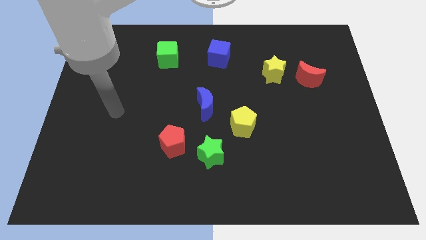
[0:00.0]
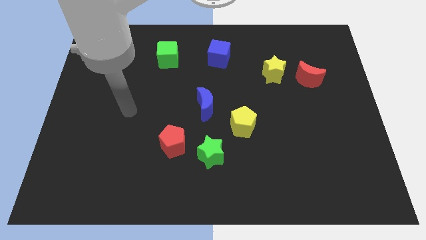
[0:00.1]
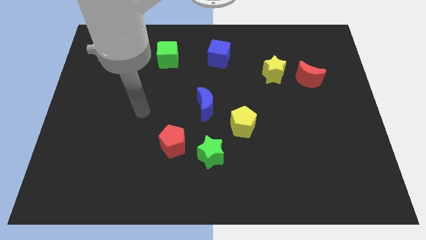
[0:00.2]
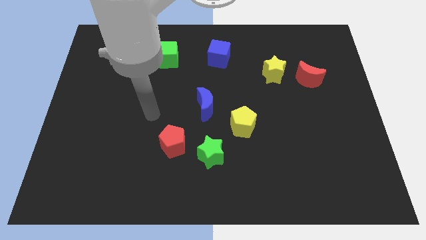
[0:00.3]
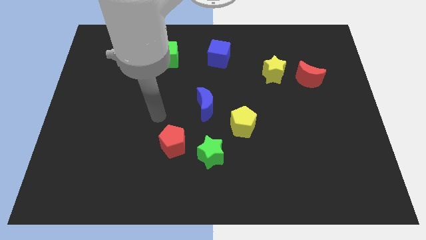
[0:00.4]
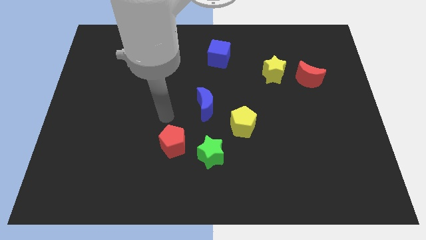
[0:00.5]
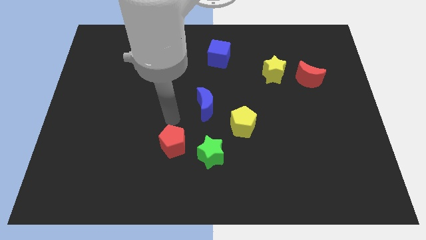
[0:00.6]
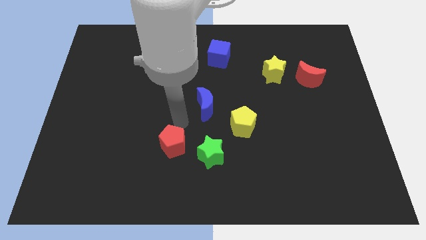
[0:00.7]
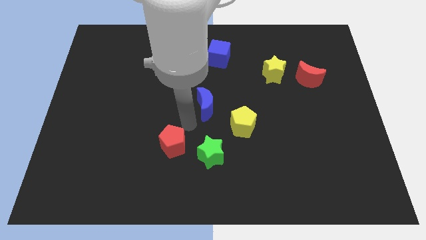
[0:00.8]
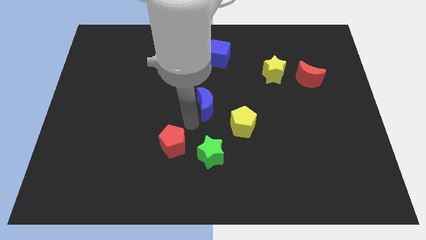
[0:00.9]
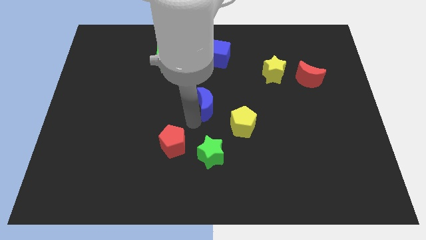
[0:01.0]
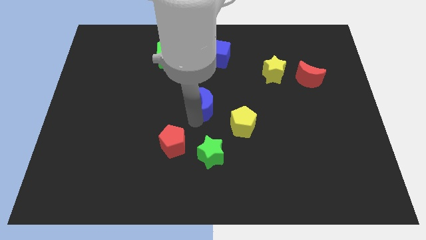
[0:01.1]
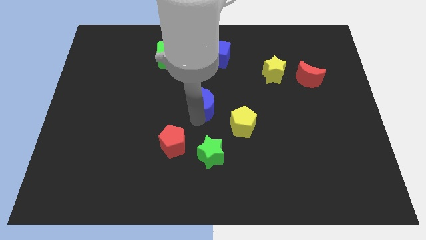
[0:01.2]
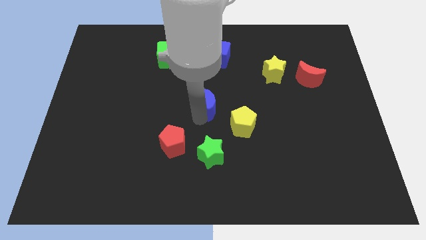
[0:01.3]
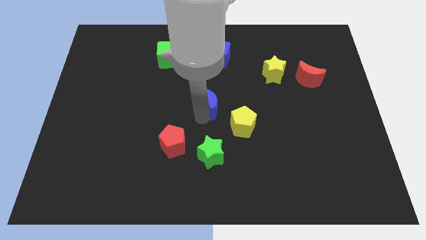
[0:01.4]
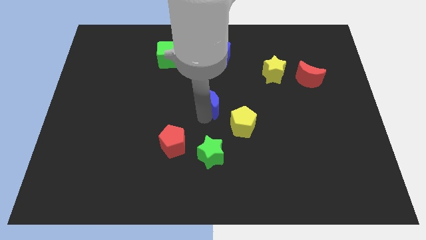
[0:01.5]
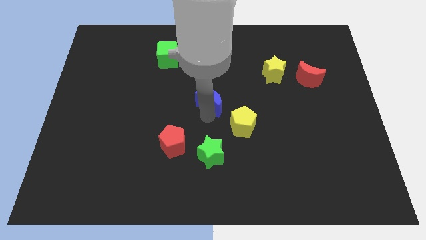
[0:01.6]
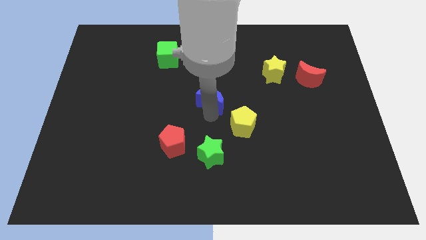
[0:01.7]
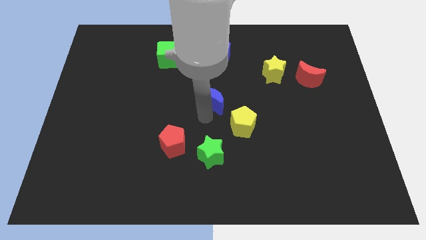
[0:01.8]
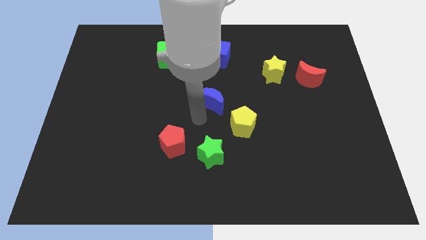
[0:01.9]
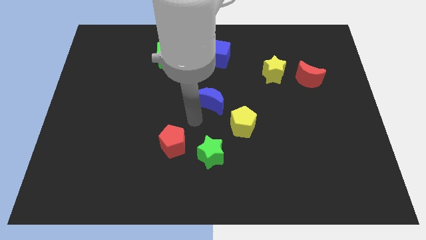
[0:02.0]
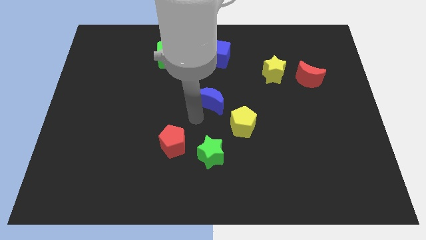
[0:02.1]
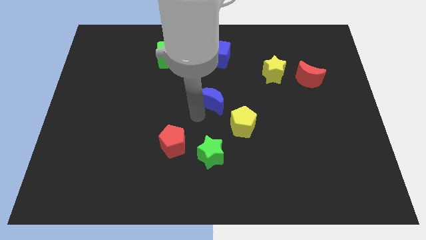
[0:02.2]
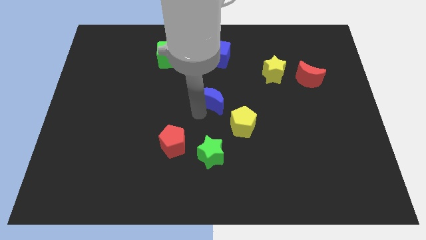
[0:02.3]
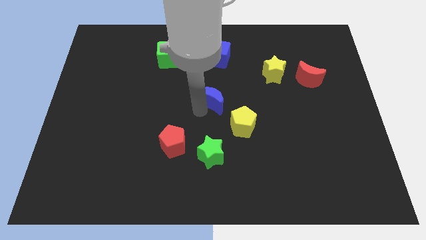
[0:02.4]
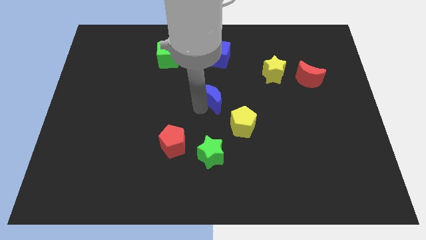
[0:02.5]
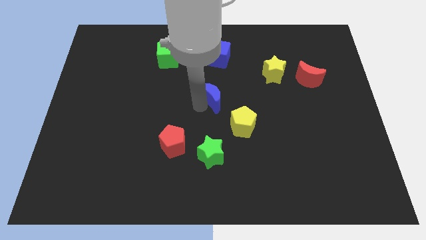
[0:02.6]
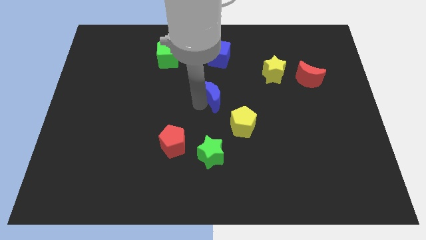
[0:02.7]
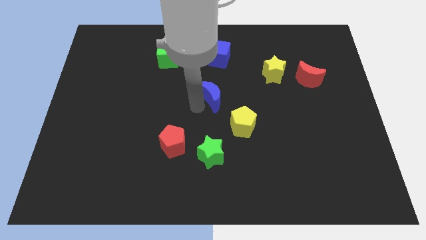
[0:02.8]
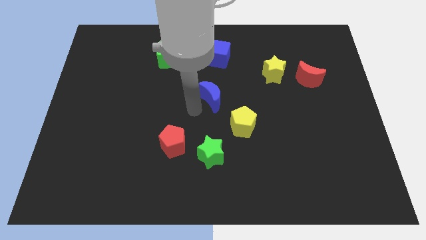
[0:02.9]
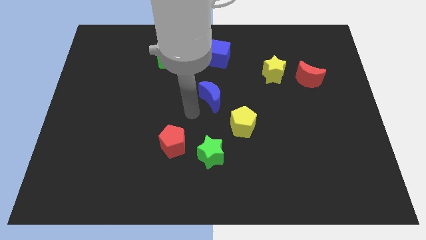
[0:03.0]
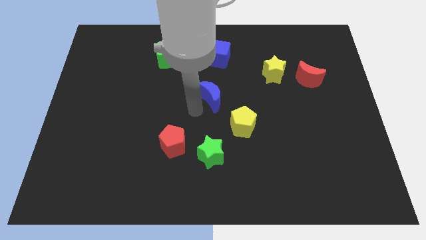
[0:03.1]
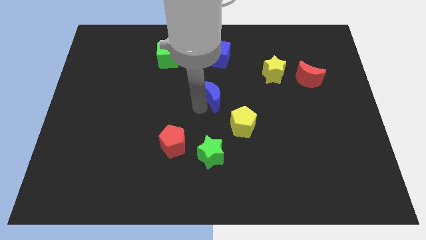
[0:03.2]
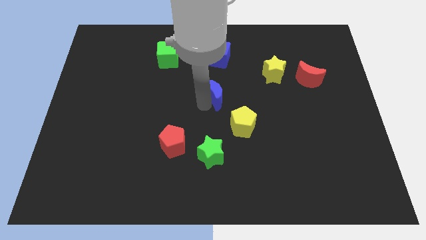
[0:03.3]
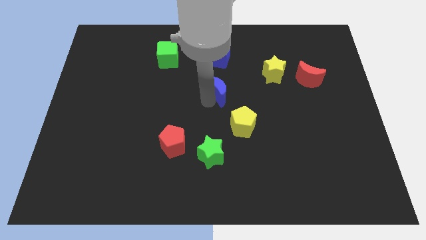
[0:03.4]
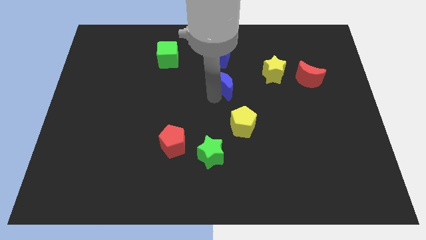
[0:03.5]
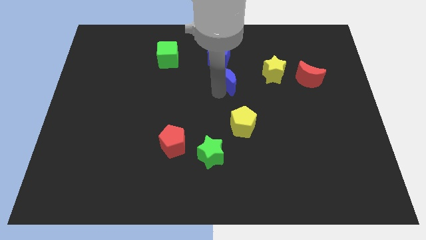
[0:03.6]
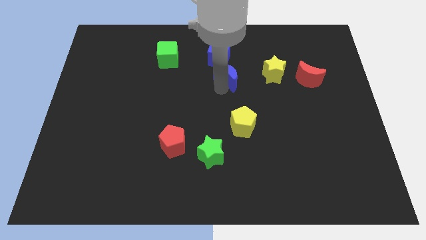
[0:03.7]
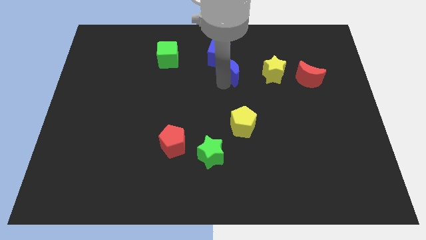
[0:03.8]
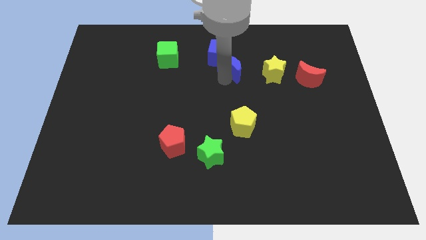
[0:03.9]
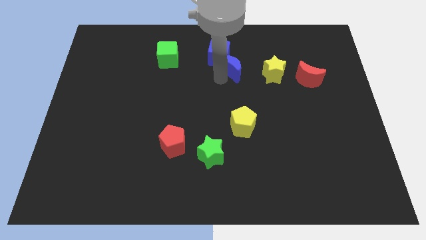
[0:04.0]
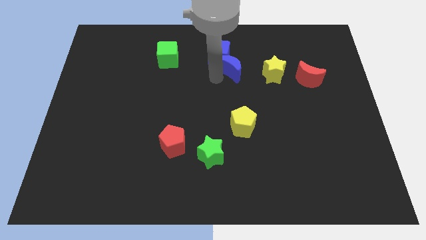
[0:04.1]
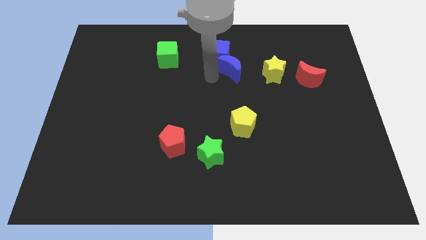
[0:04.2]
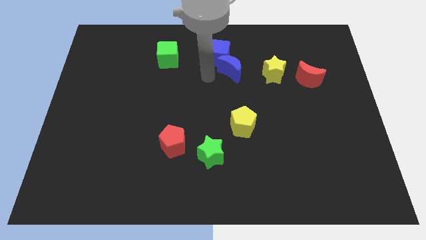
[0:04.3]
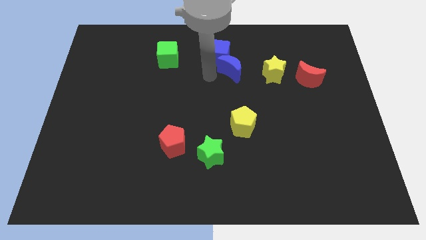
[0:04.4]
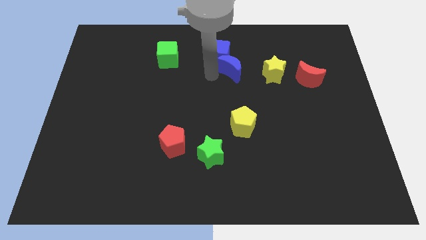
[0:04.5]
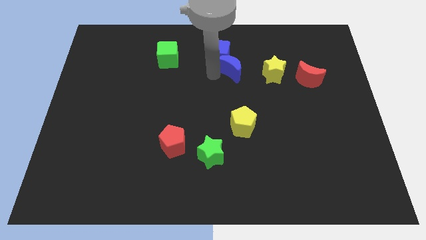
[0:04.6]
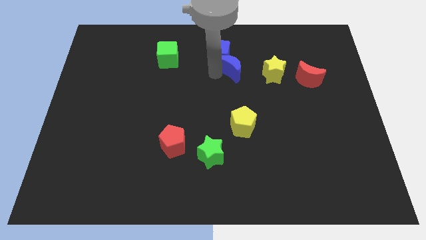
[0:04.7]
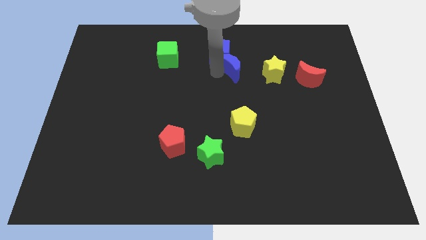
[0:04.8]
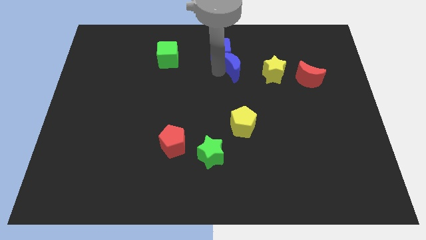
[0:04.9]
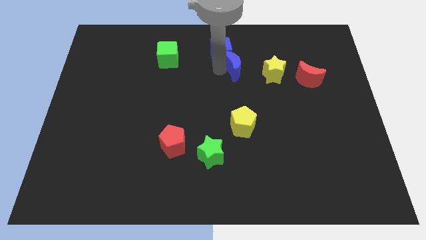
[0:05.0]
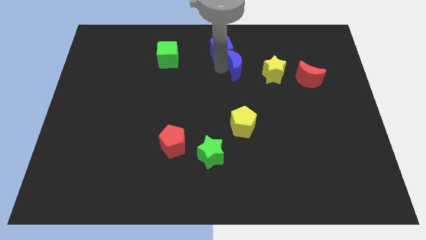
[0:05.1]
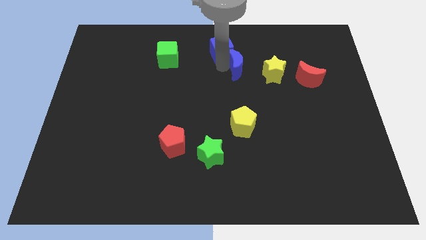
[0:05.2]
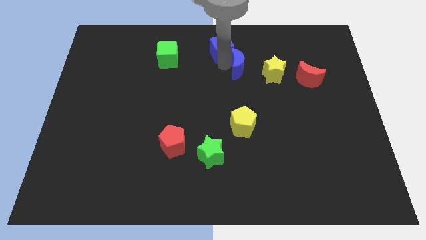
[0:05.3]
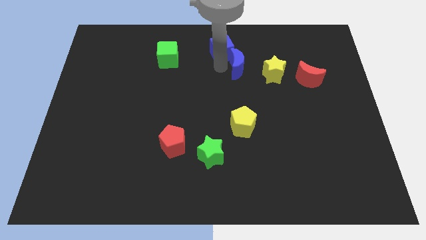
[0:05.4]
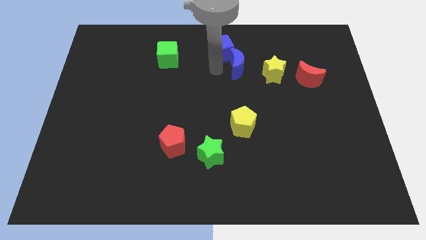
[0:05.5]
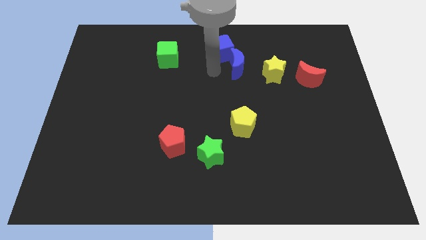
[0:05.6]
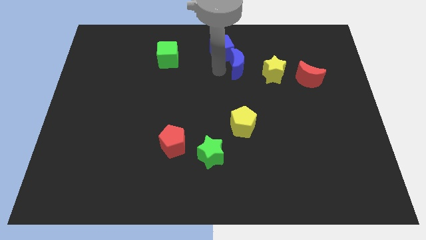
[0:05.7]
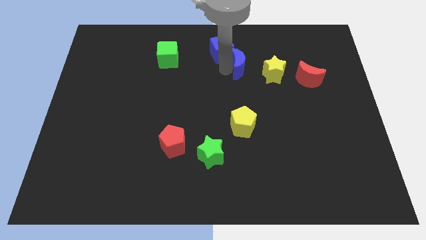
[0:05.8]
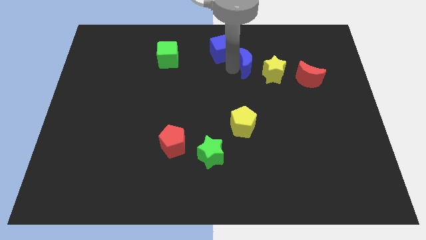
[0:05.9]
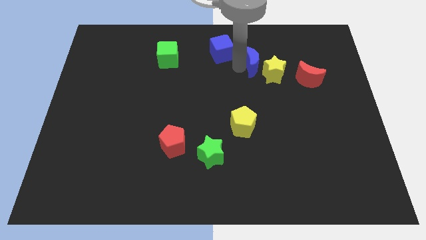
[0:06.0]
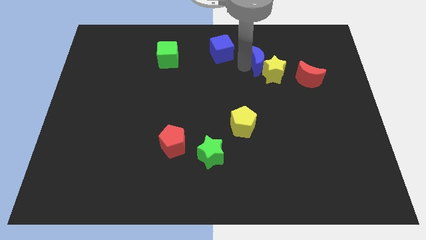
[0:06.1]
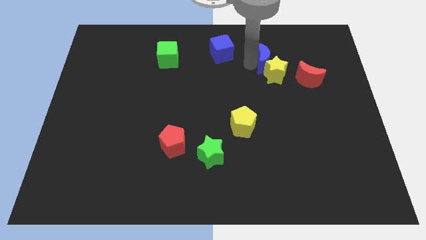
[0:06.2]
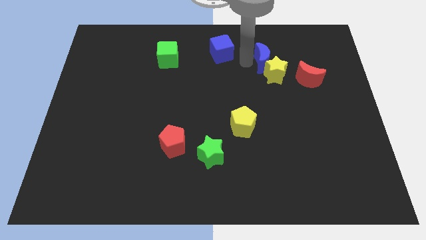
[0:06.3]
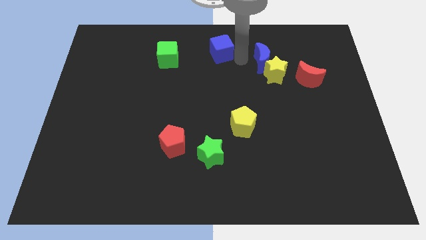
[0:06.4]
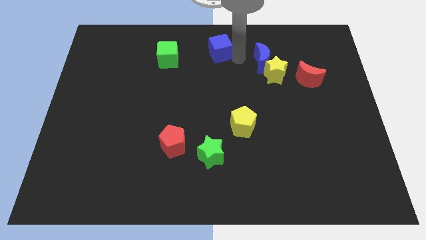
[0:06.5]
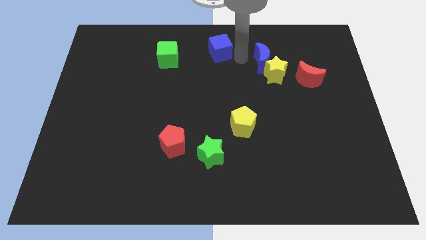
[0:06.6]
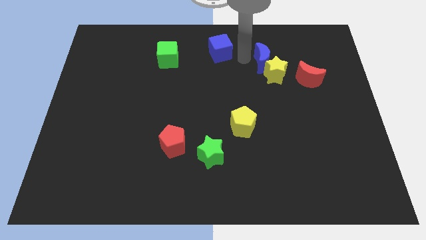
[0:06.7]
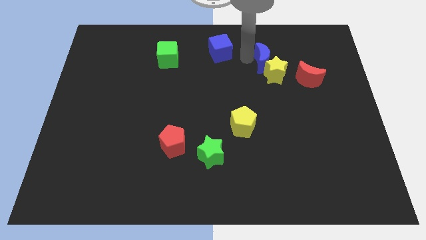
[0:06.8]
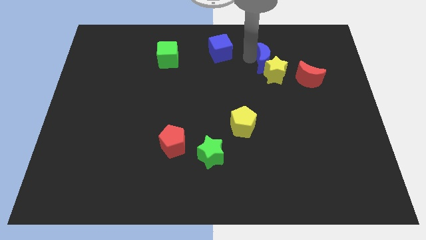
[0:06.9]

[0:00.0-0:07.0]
push the blue moon diagonally up and to the left of the red moon

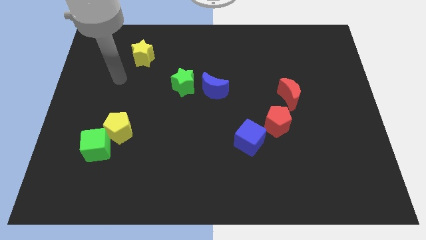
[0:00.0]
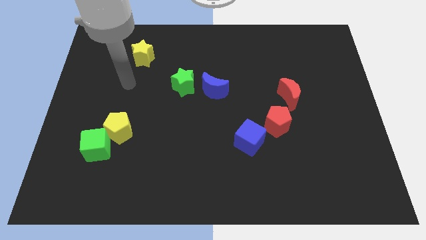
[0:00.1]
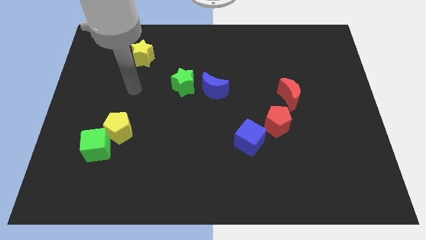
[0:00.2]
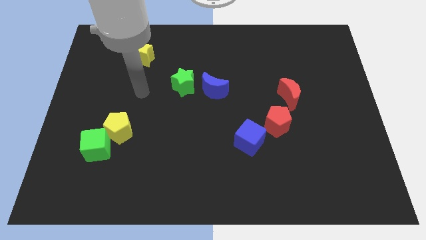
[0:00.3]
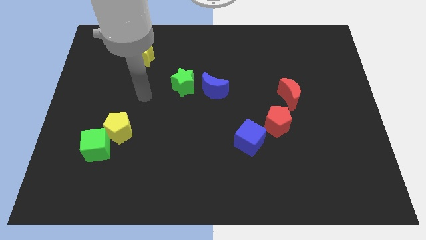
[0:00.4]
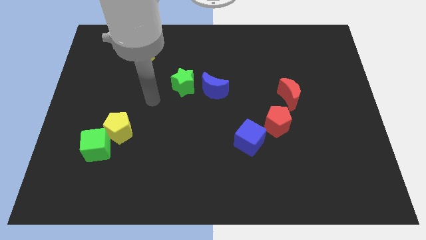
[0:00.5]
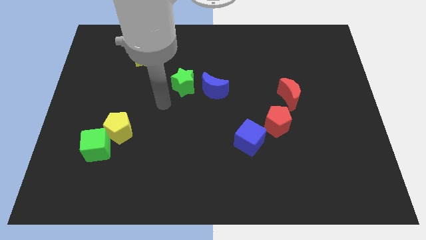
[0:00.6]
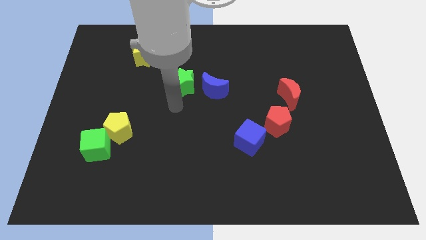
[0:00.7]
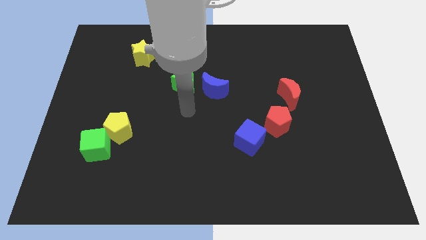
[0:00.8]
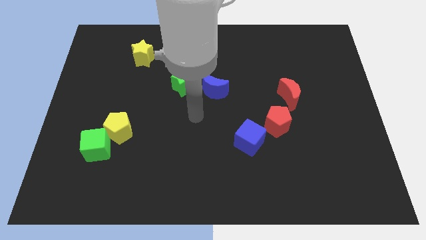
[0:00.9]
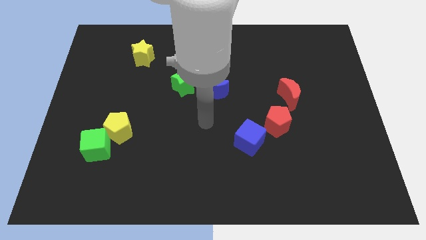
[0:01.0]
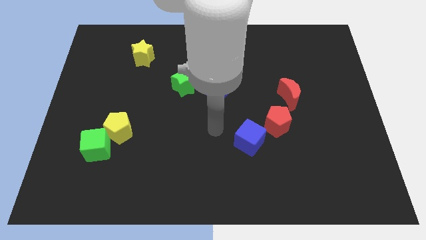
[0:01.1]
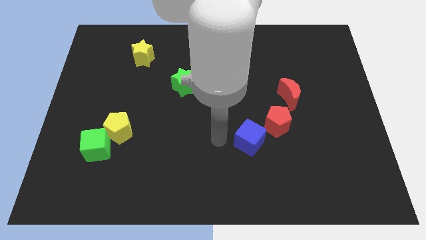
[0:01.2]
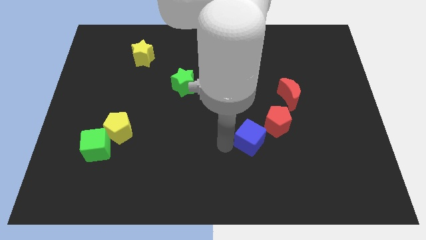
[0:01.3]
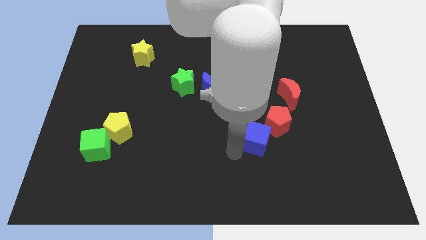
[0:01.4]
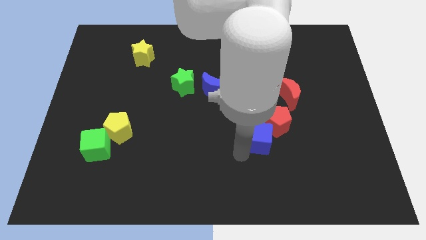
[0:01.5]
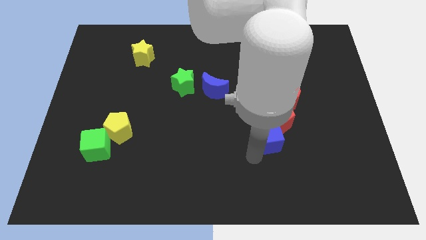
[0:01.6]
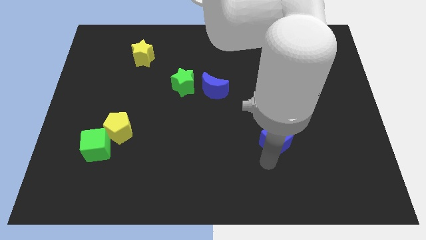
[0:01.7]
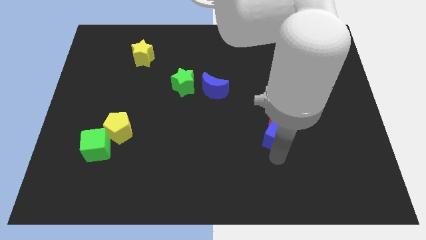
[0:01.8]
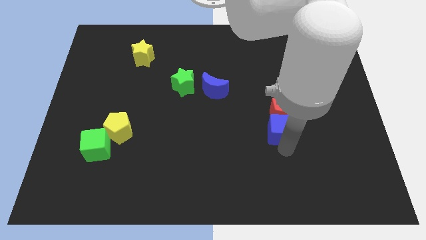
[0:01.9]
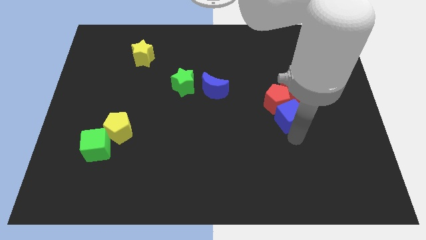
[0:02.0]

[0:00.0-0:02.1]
push the red pentagon to the right of the blue moon
